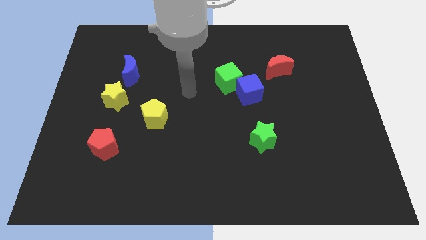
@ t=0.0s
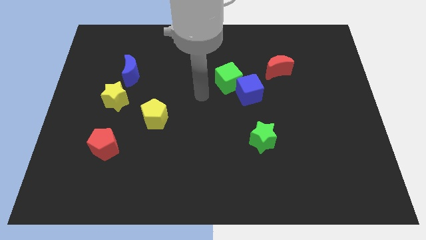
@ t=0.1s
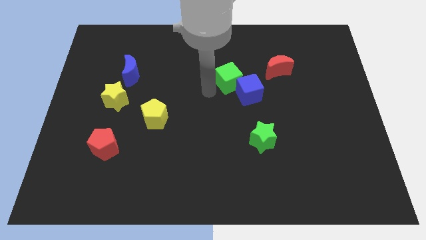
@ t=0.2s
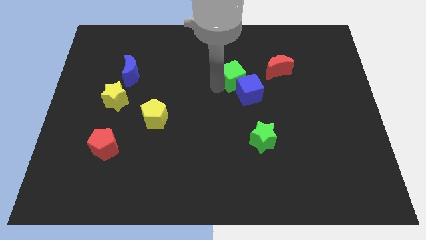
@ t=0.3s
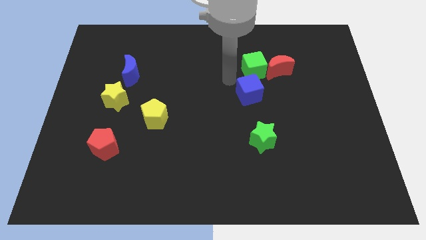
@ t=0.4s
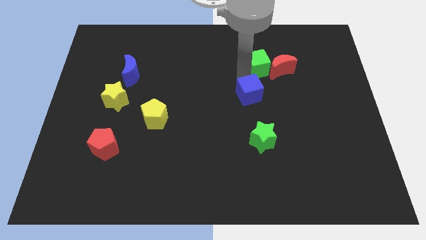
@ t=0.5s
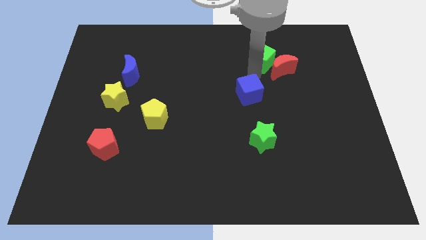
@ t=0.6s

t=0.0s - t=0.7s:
move the blue cube away from the green cube

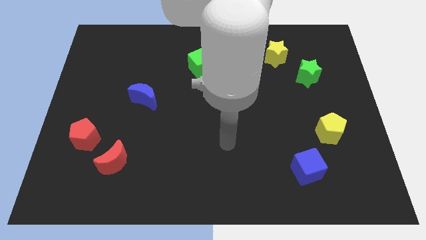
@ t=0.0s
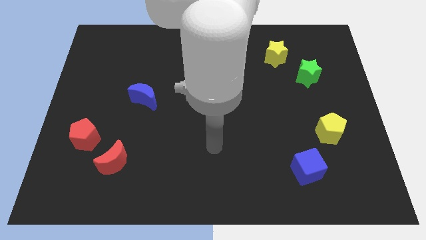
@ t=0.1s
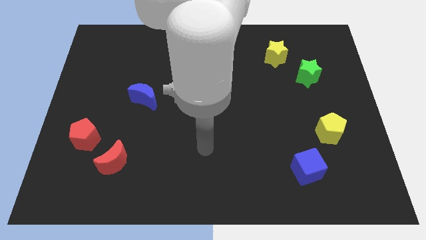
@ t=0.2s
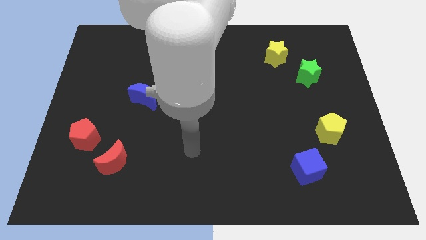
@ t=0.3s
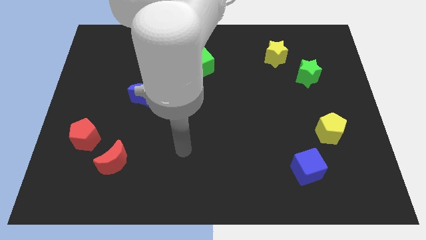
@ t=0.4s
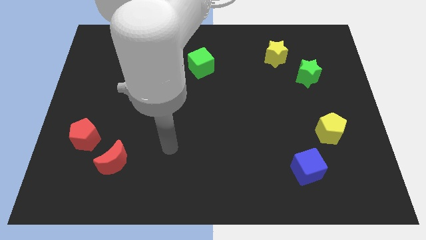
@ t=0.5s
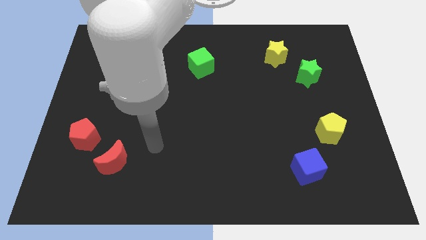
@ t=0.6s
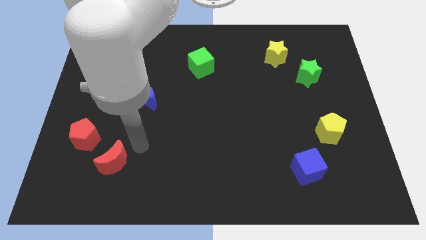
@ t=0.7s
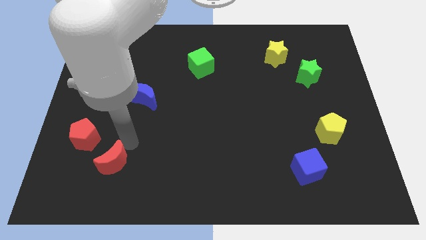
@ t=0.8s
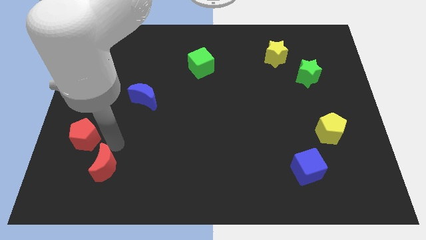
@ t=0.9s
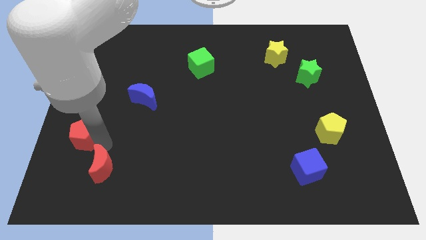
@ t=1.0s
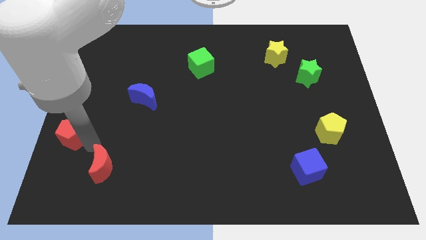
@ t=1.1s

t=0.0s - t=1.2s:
separate the red moon from the red pentagon

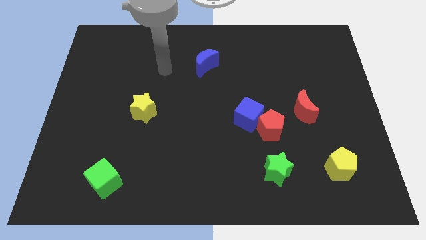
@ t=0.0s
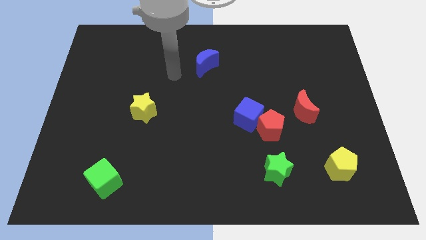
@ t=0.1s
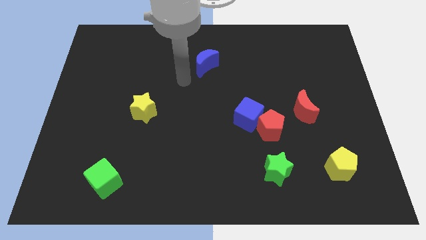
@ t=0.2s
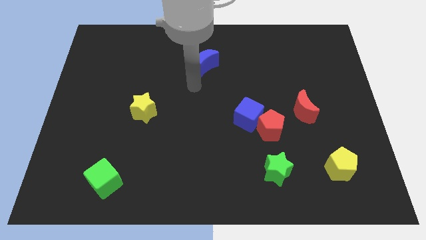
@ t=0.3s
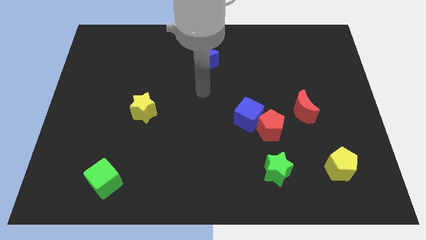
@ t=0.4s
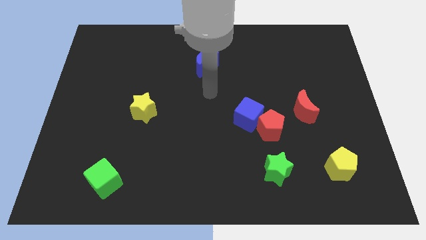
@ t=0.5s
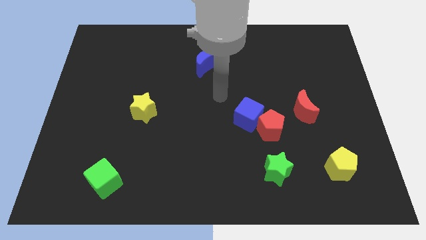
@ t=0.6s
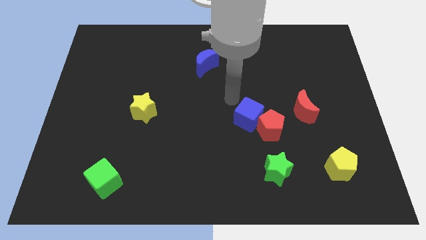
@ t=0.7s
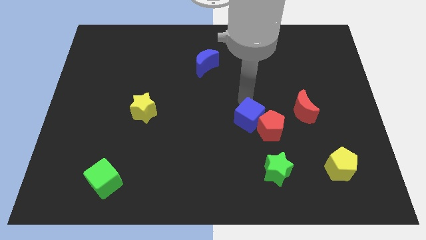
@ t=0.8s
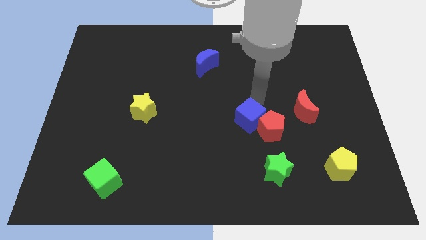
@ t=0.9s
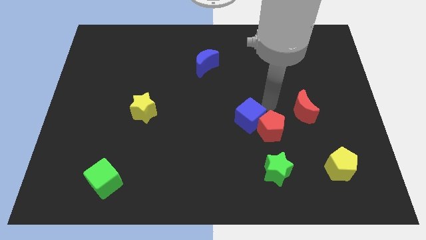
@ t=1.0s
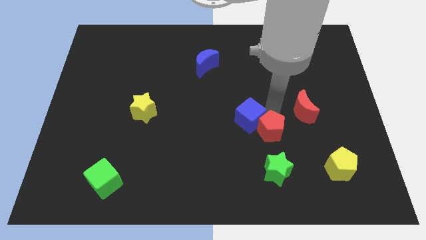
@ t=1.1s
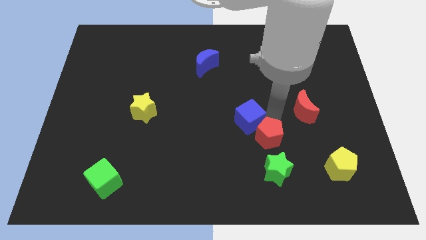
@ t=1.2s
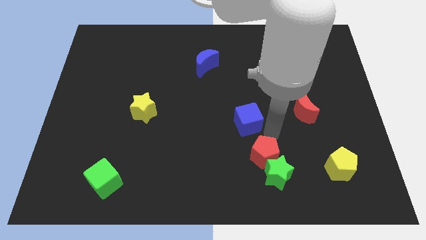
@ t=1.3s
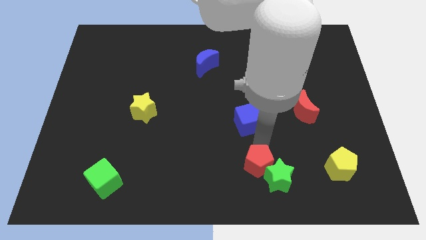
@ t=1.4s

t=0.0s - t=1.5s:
separate the blue cube from the red pentagon

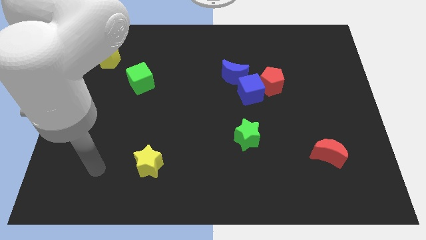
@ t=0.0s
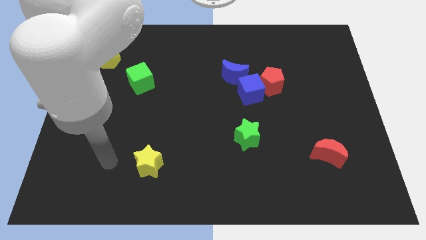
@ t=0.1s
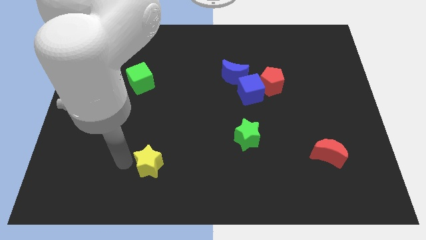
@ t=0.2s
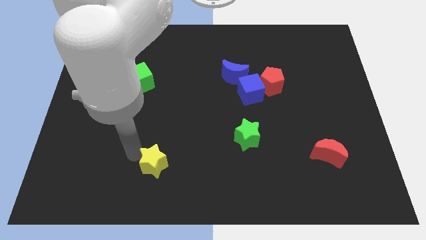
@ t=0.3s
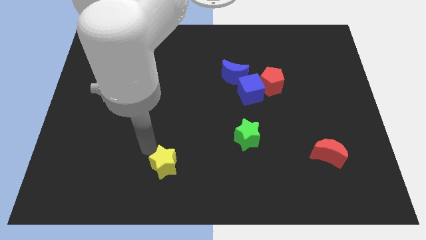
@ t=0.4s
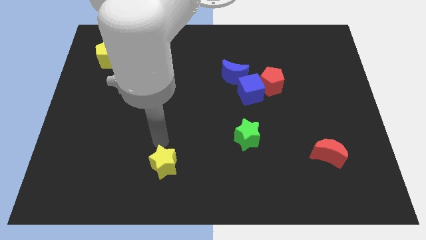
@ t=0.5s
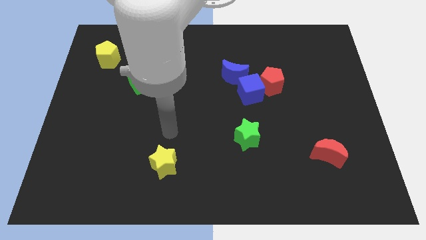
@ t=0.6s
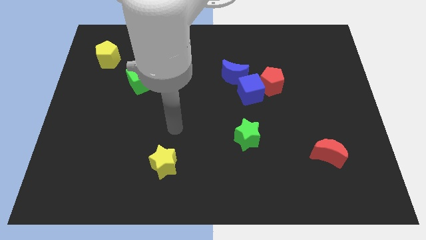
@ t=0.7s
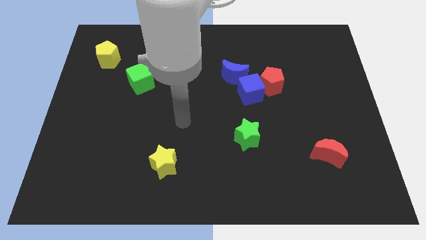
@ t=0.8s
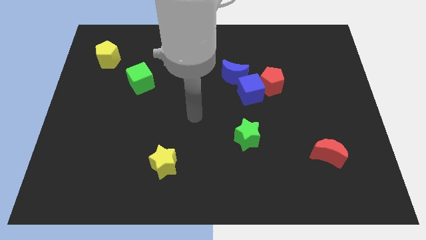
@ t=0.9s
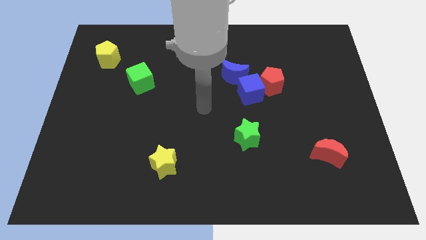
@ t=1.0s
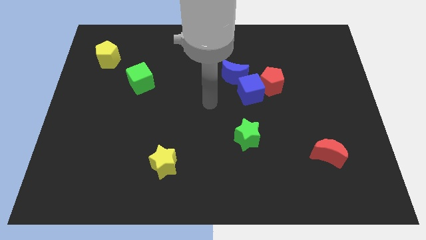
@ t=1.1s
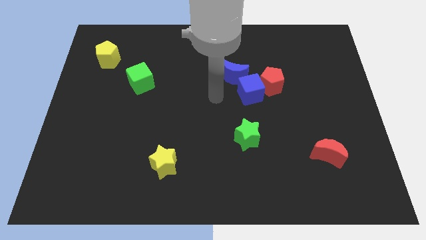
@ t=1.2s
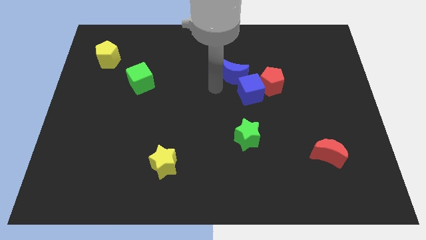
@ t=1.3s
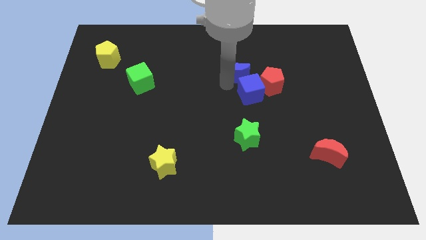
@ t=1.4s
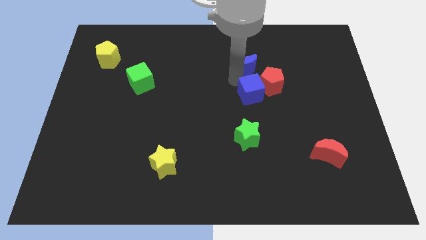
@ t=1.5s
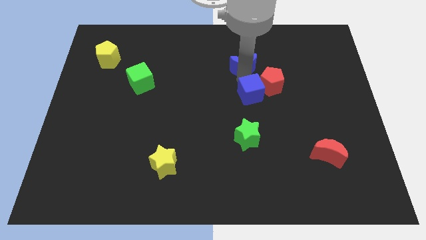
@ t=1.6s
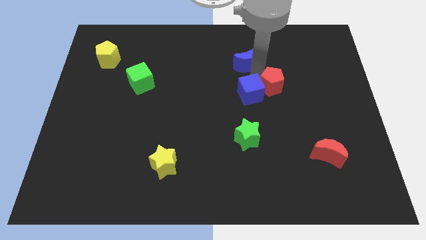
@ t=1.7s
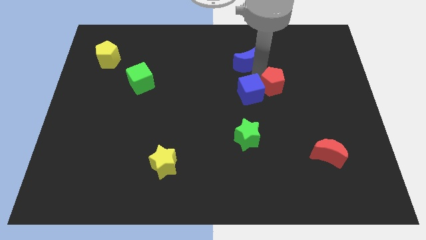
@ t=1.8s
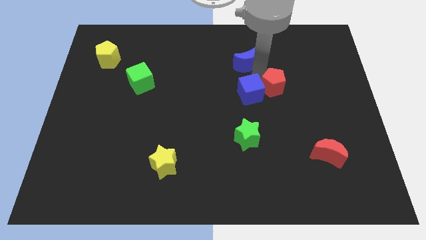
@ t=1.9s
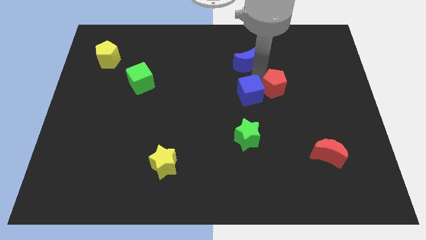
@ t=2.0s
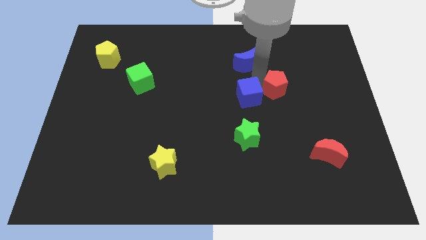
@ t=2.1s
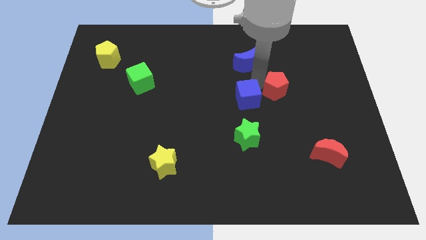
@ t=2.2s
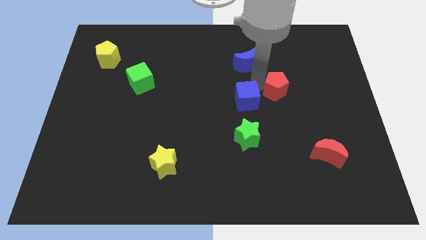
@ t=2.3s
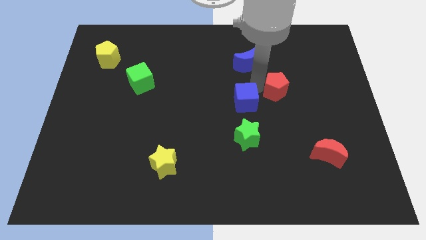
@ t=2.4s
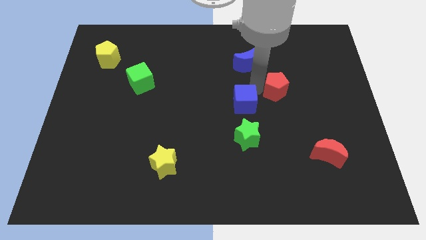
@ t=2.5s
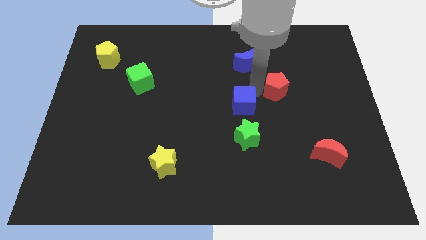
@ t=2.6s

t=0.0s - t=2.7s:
move the blue cube away from the red pentagon and blue moon

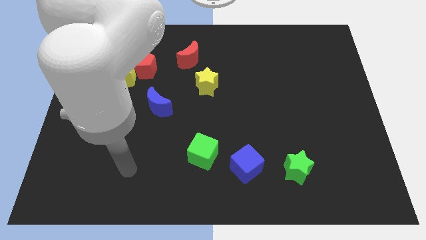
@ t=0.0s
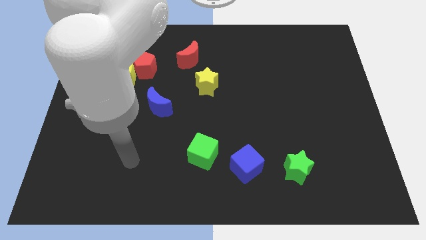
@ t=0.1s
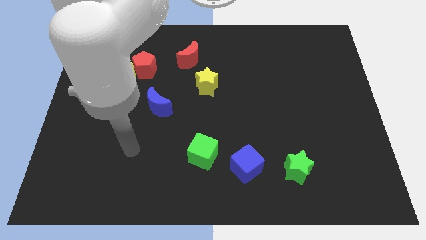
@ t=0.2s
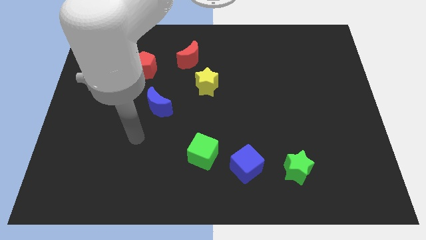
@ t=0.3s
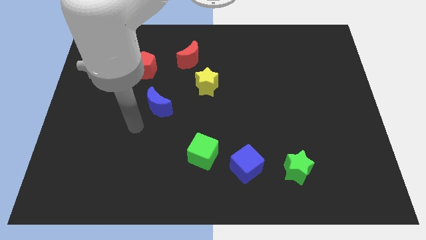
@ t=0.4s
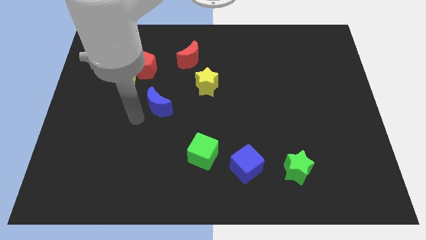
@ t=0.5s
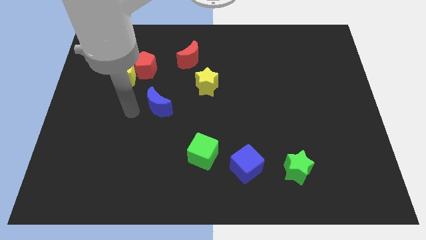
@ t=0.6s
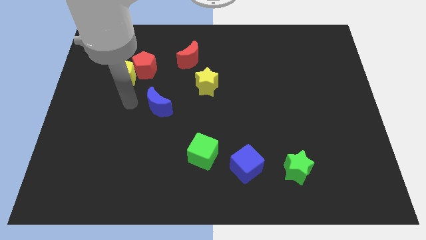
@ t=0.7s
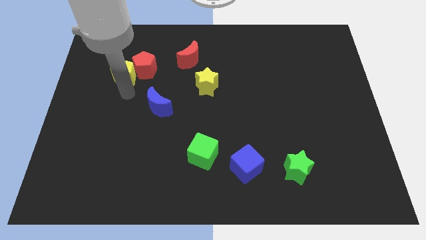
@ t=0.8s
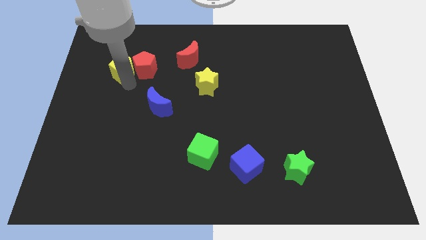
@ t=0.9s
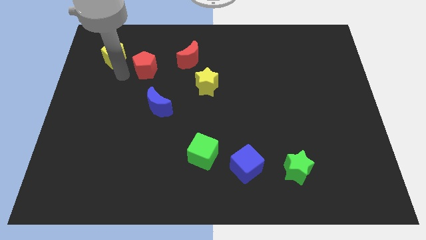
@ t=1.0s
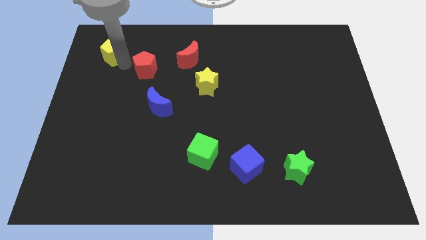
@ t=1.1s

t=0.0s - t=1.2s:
move the red pentagon away from the yellow pentagon

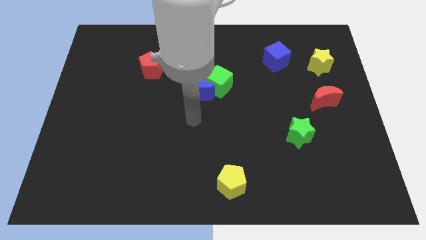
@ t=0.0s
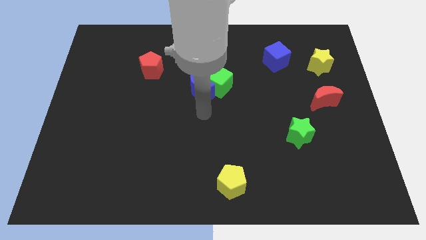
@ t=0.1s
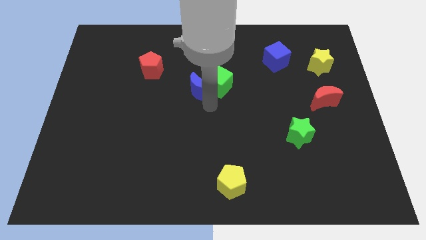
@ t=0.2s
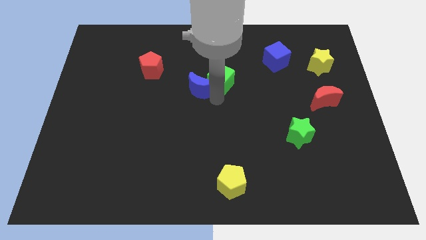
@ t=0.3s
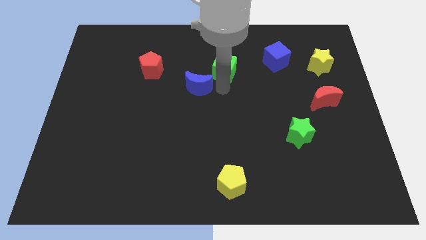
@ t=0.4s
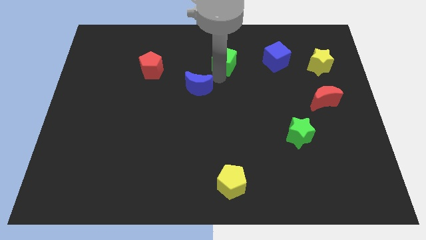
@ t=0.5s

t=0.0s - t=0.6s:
separate the blue moon from the green cube

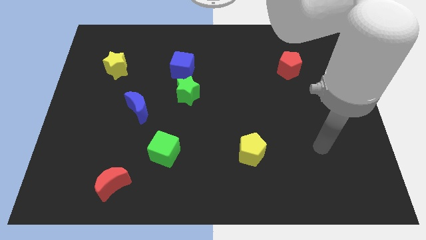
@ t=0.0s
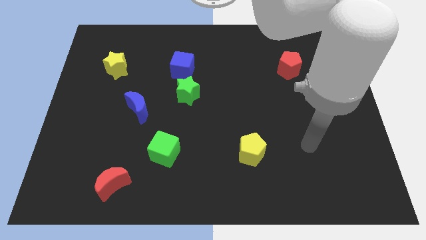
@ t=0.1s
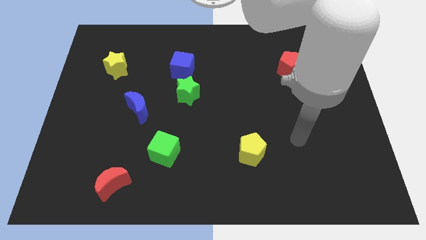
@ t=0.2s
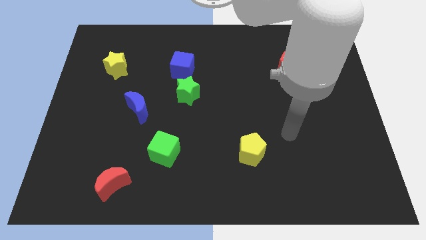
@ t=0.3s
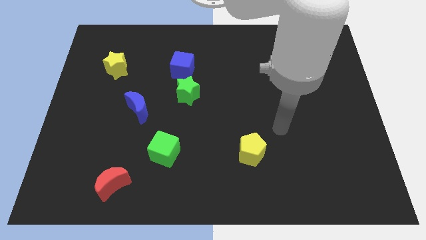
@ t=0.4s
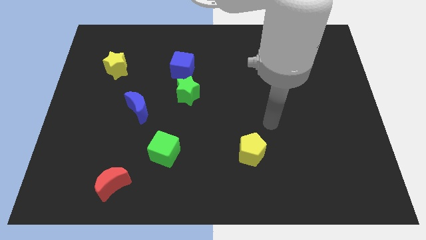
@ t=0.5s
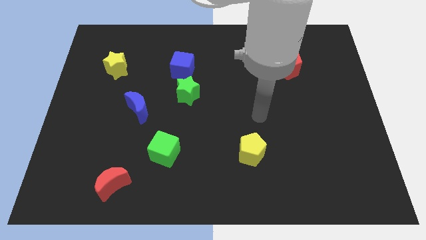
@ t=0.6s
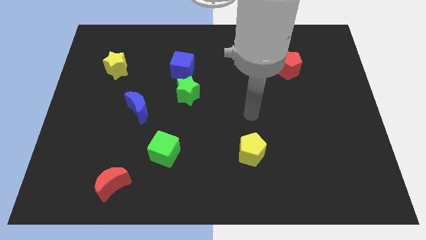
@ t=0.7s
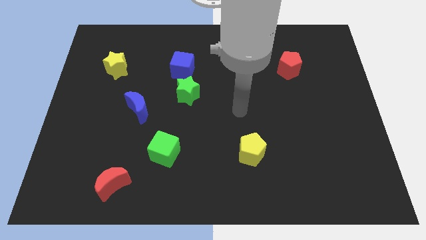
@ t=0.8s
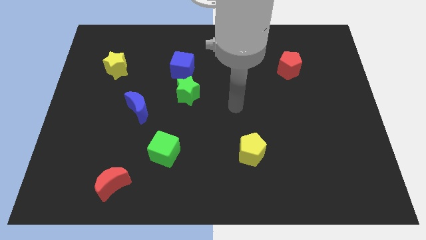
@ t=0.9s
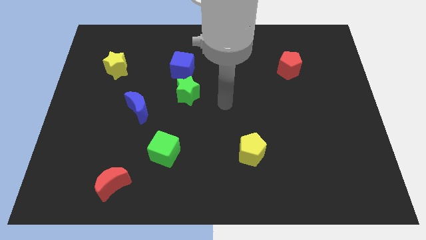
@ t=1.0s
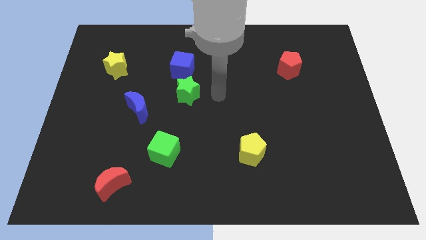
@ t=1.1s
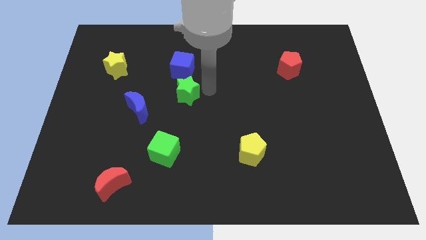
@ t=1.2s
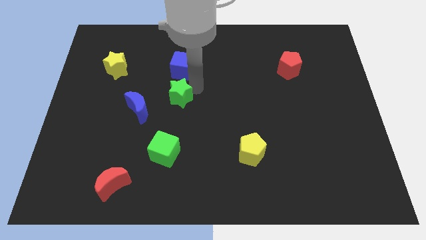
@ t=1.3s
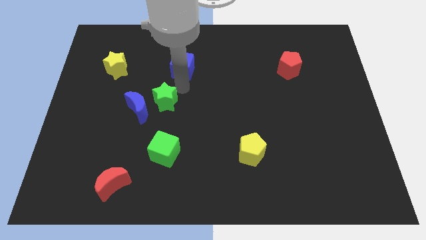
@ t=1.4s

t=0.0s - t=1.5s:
separate the blue cube from the green star
